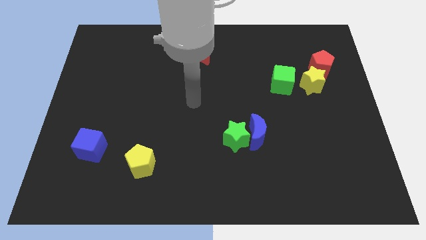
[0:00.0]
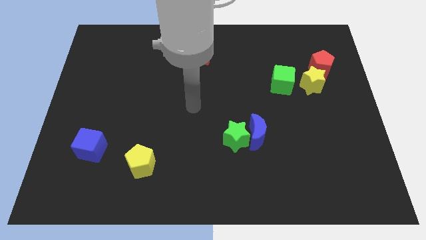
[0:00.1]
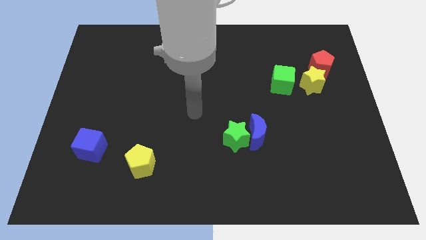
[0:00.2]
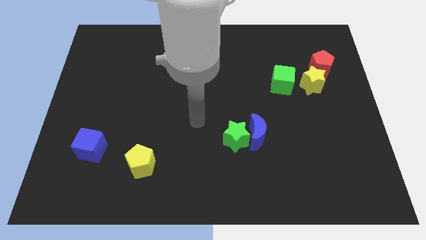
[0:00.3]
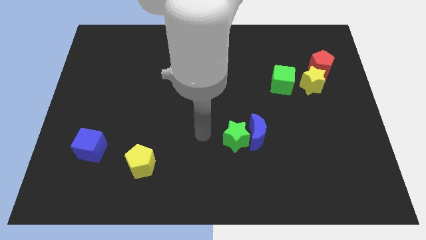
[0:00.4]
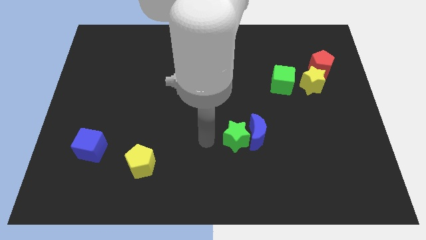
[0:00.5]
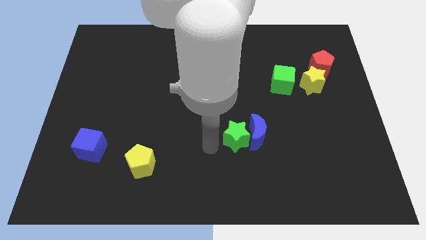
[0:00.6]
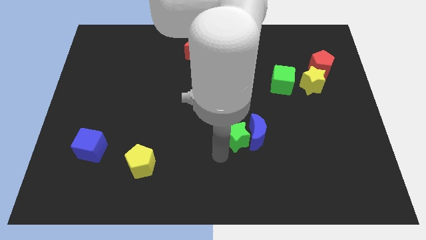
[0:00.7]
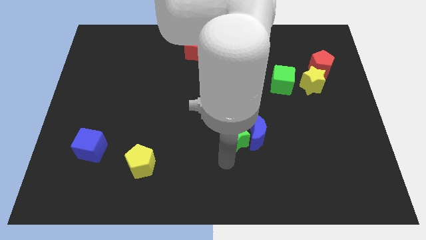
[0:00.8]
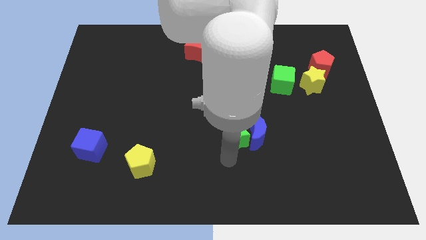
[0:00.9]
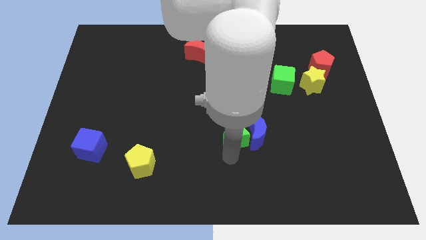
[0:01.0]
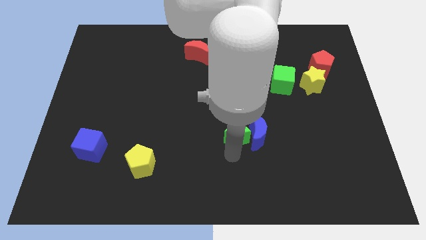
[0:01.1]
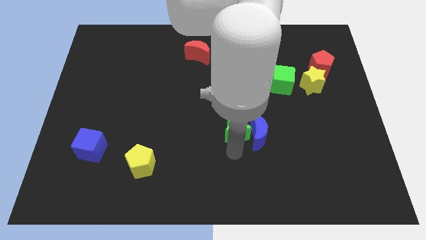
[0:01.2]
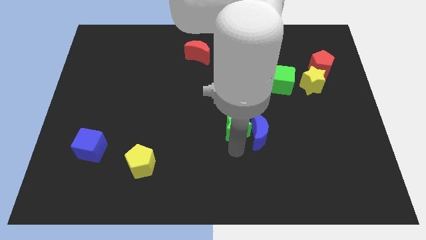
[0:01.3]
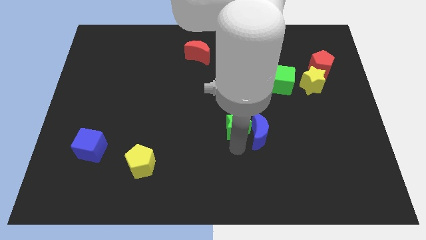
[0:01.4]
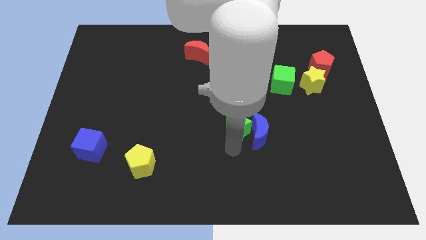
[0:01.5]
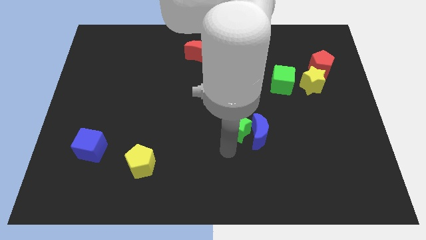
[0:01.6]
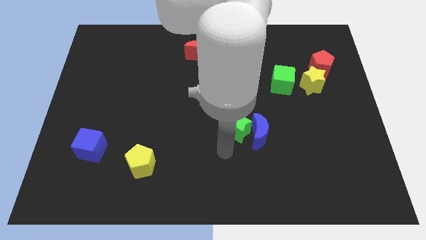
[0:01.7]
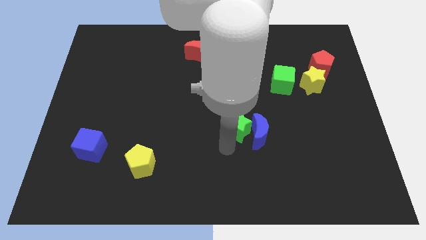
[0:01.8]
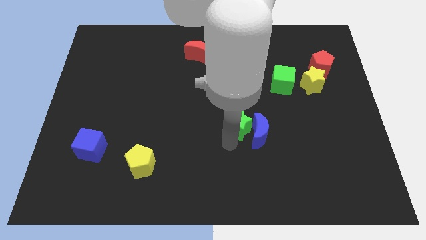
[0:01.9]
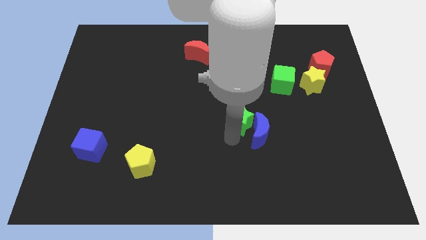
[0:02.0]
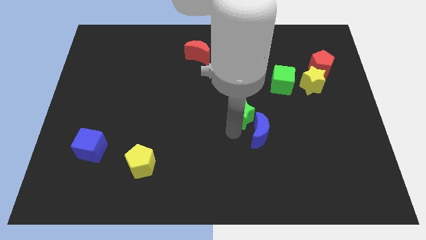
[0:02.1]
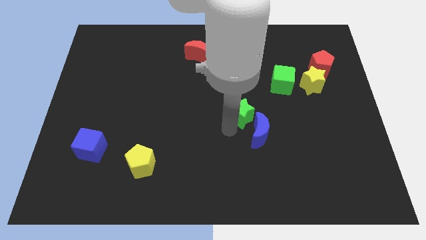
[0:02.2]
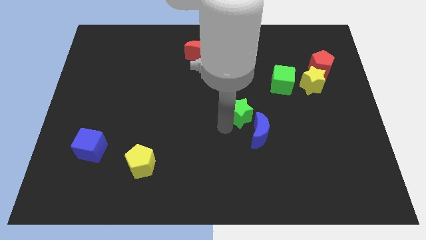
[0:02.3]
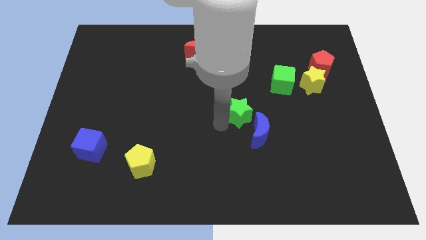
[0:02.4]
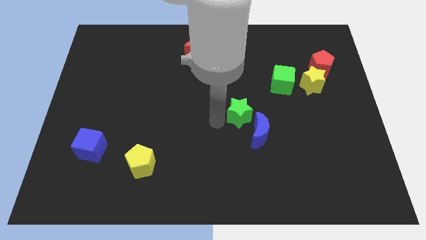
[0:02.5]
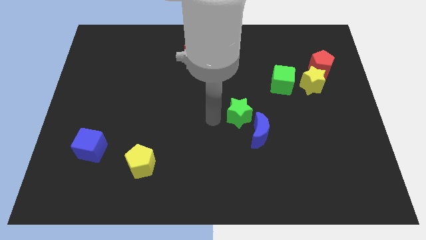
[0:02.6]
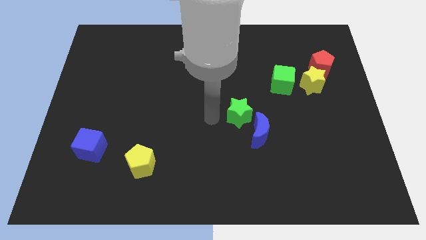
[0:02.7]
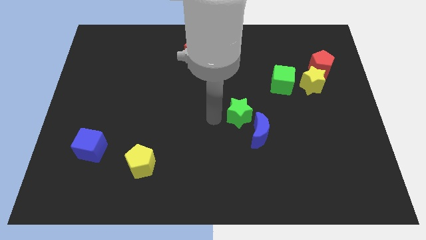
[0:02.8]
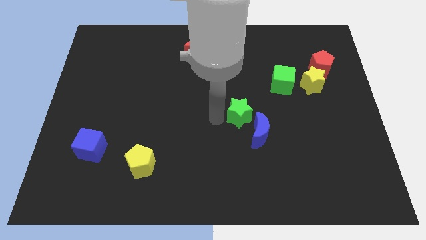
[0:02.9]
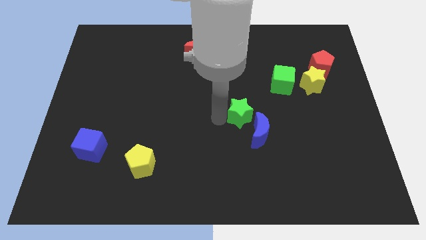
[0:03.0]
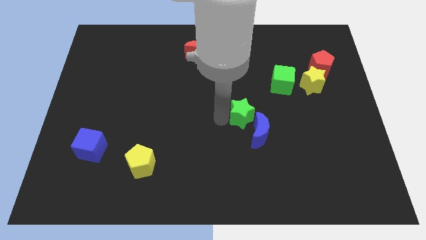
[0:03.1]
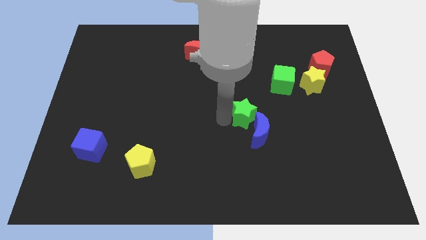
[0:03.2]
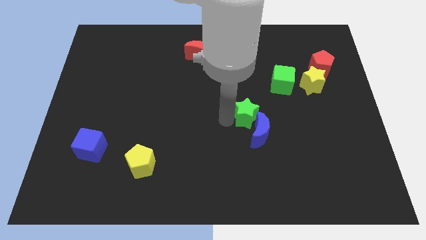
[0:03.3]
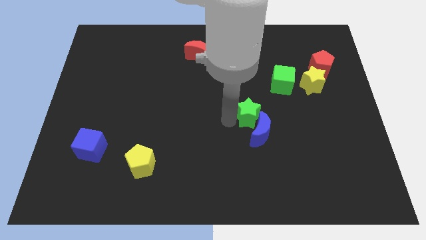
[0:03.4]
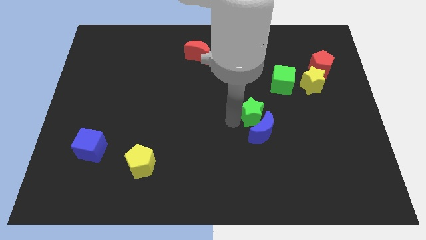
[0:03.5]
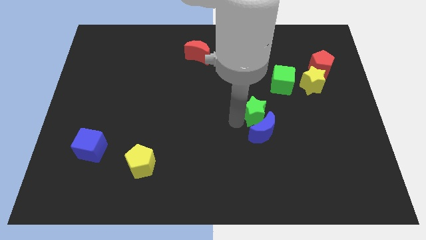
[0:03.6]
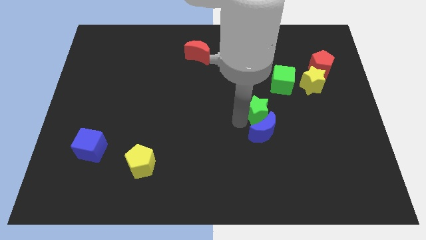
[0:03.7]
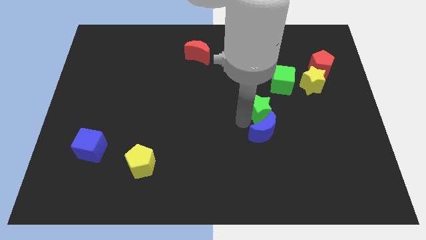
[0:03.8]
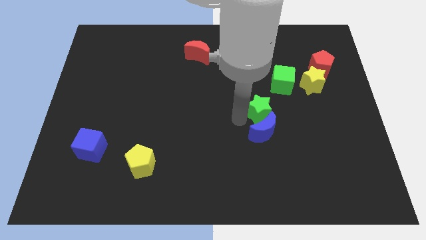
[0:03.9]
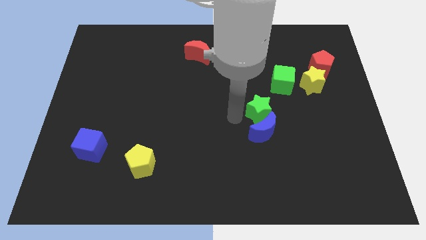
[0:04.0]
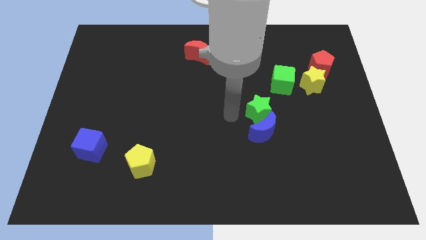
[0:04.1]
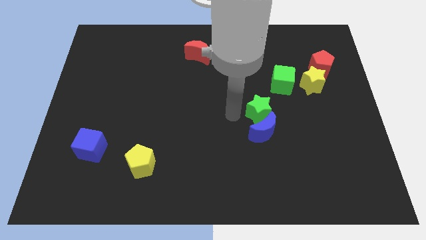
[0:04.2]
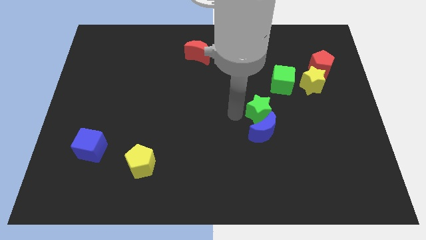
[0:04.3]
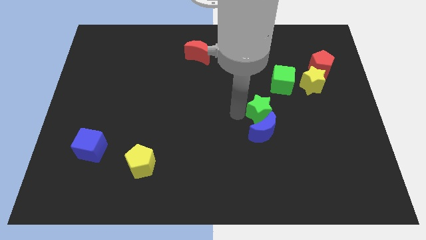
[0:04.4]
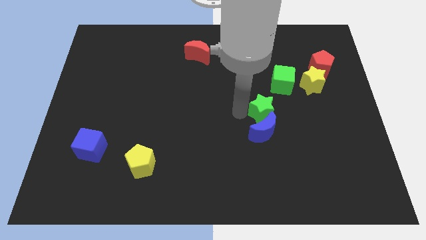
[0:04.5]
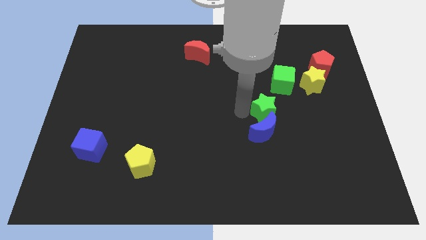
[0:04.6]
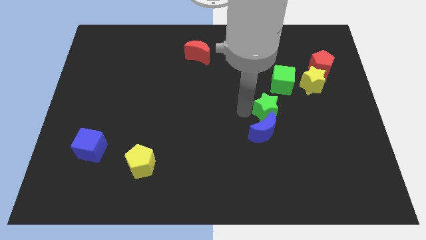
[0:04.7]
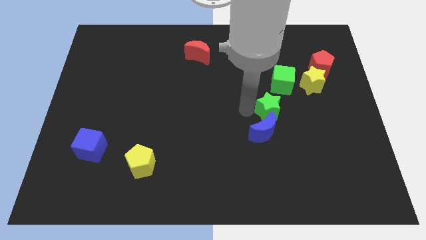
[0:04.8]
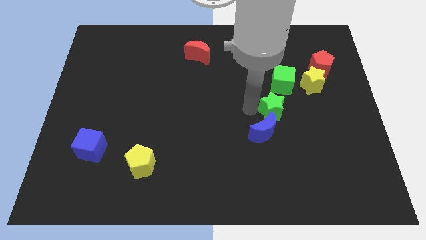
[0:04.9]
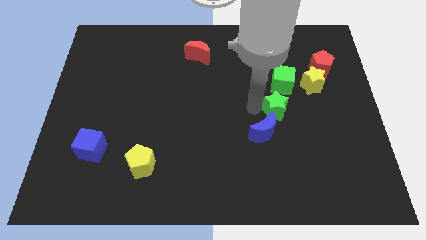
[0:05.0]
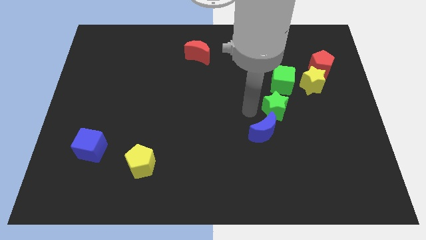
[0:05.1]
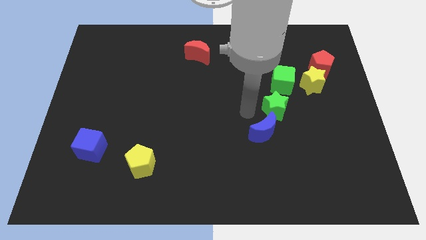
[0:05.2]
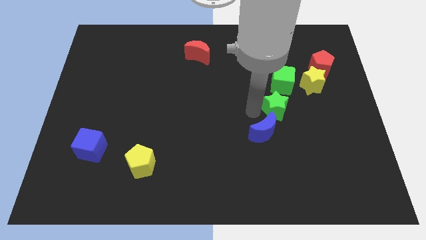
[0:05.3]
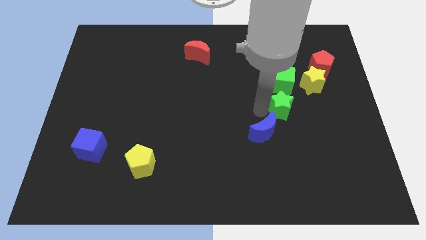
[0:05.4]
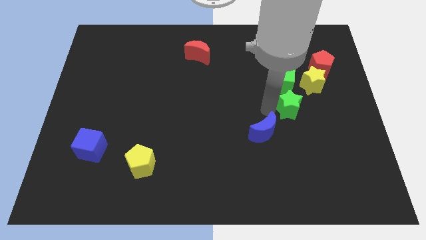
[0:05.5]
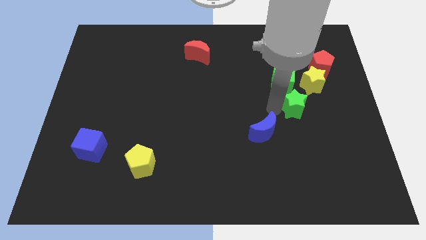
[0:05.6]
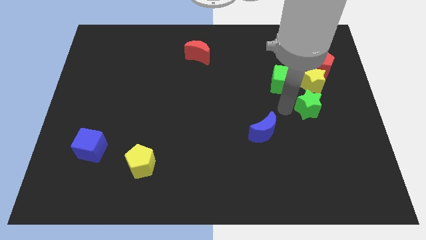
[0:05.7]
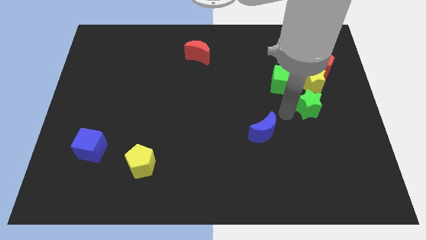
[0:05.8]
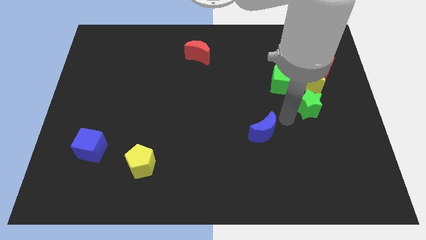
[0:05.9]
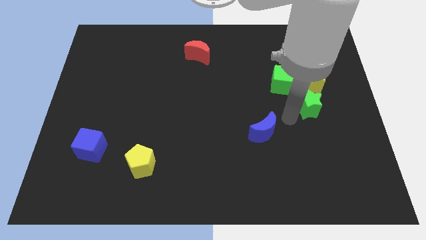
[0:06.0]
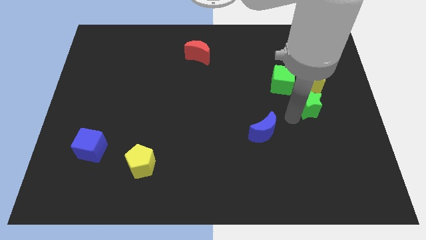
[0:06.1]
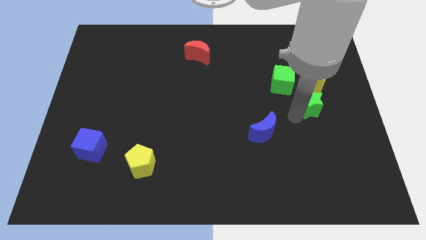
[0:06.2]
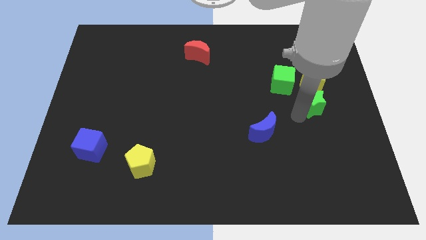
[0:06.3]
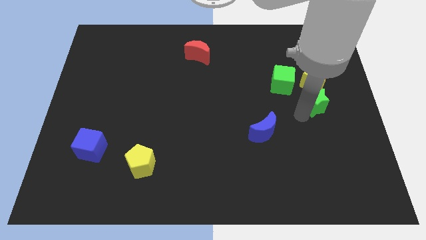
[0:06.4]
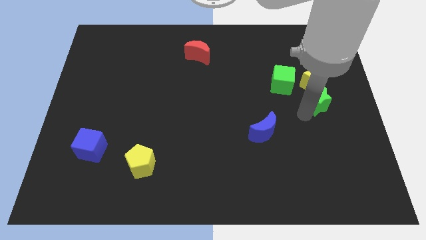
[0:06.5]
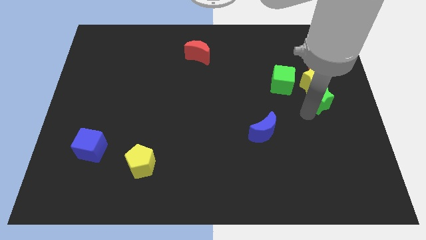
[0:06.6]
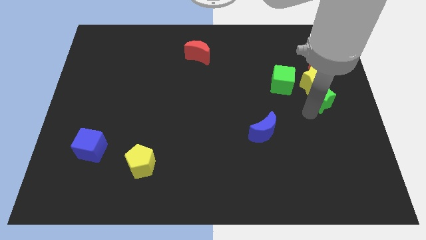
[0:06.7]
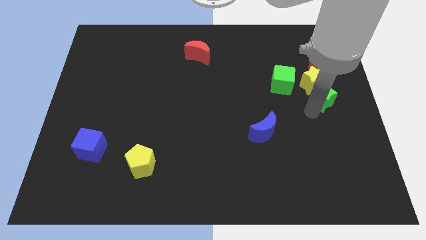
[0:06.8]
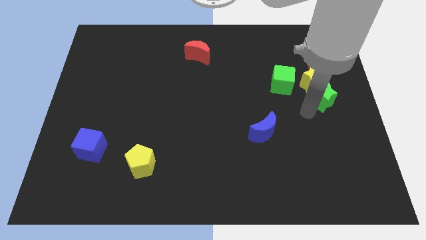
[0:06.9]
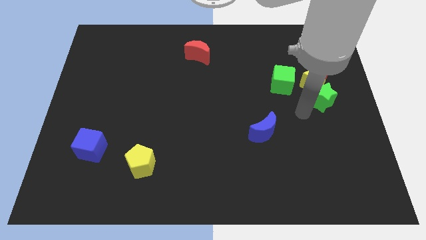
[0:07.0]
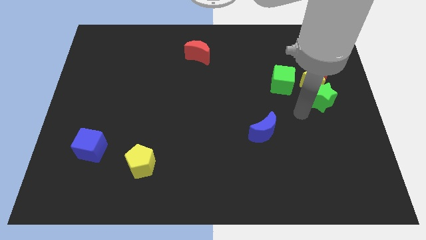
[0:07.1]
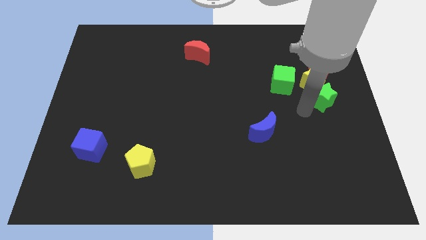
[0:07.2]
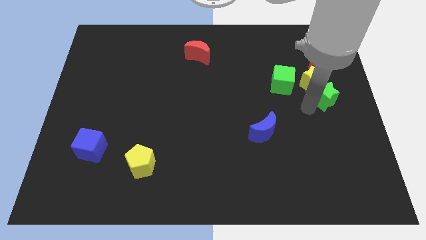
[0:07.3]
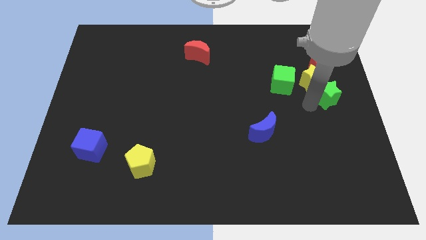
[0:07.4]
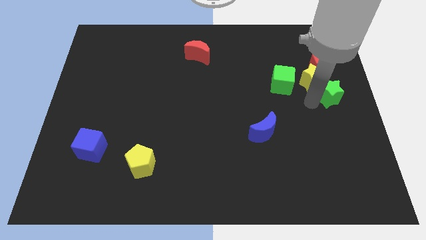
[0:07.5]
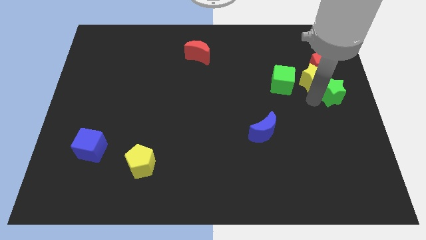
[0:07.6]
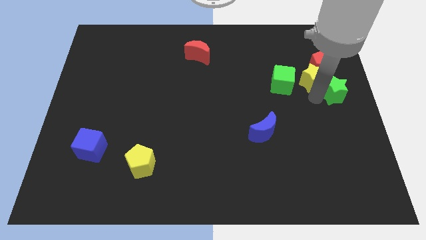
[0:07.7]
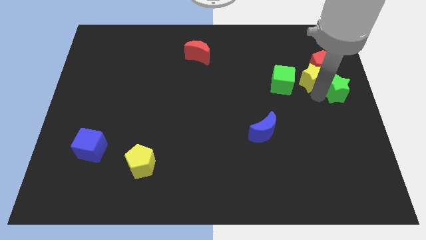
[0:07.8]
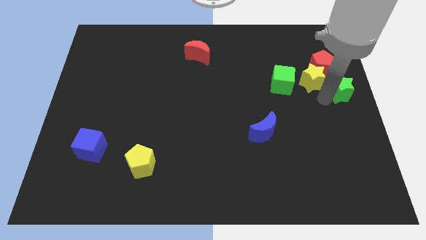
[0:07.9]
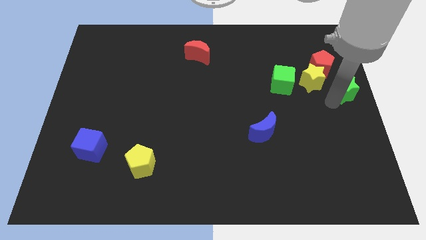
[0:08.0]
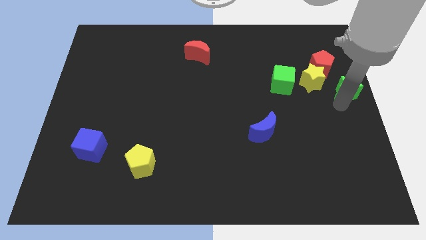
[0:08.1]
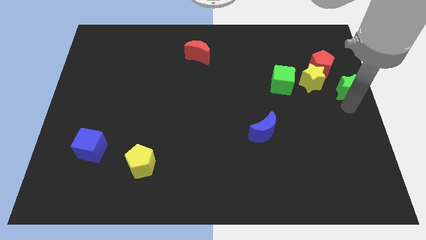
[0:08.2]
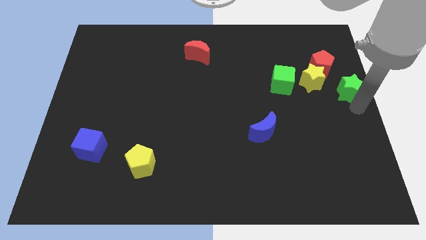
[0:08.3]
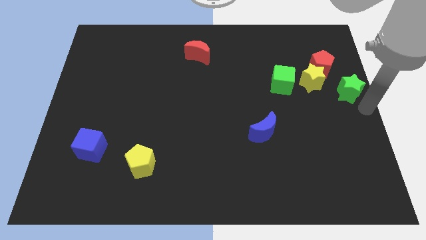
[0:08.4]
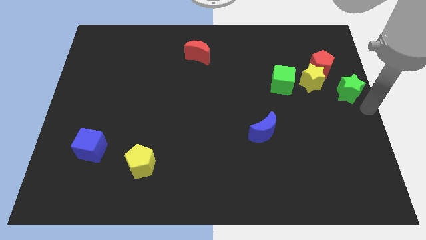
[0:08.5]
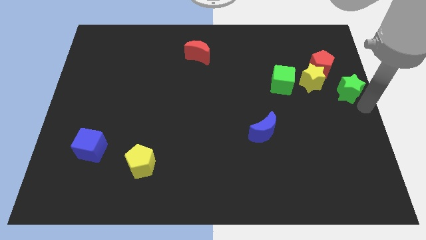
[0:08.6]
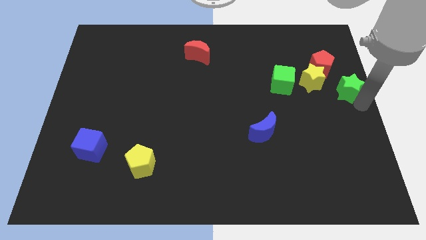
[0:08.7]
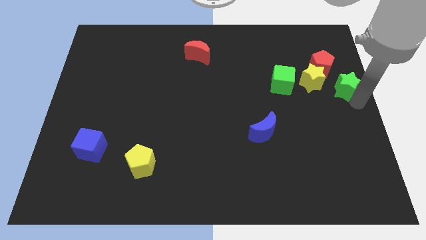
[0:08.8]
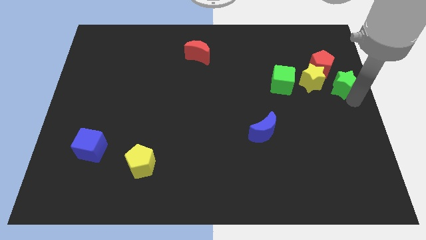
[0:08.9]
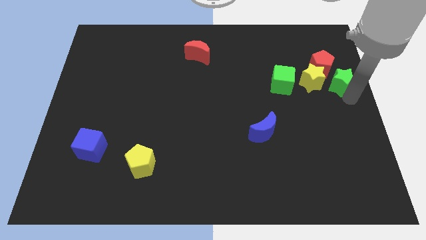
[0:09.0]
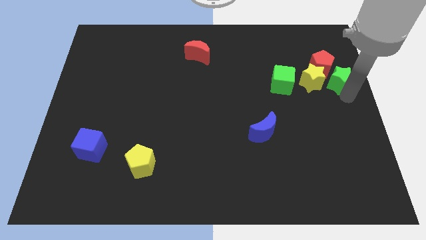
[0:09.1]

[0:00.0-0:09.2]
put the green star next to the red pentagon
